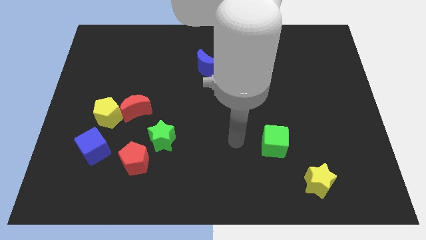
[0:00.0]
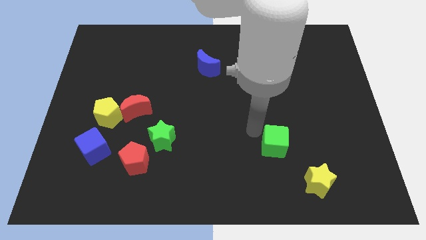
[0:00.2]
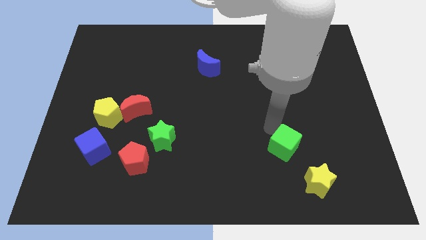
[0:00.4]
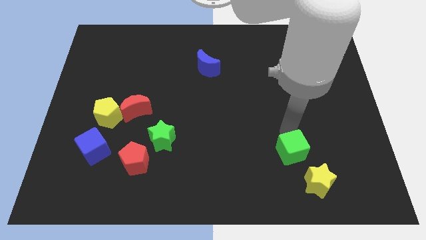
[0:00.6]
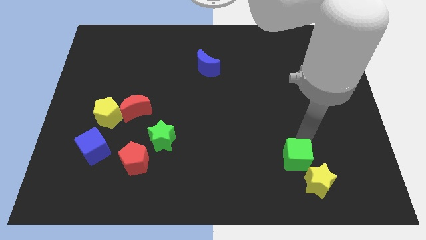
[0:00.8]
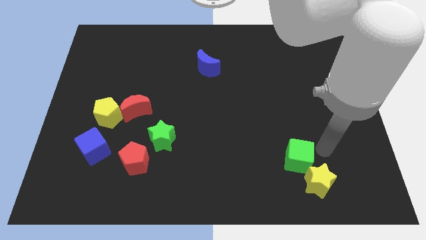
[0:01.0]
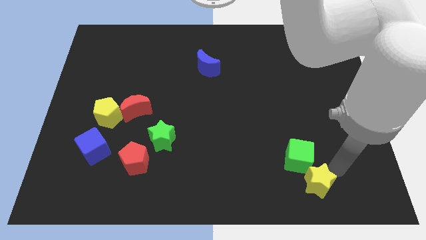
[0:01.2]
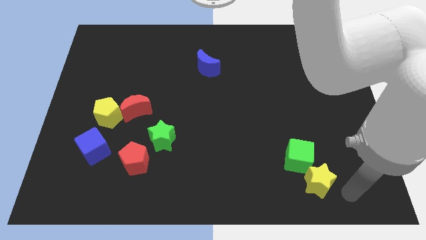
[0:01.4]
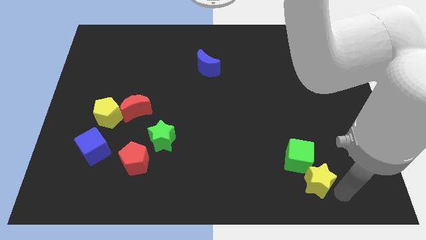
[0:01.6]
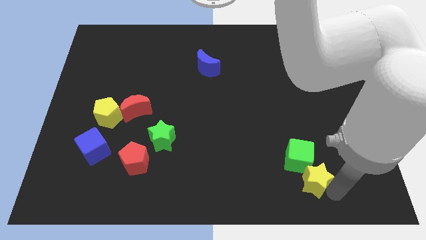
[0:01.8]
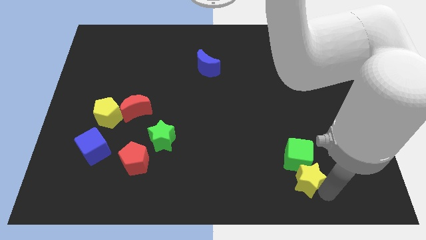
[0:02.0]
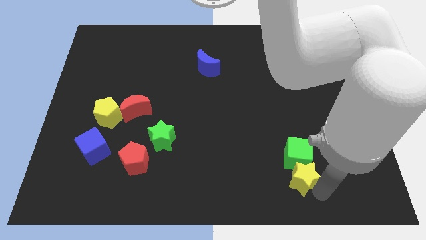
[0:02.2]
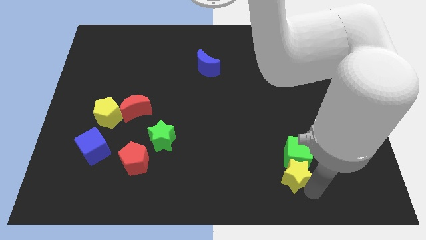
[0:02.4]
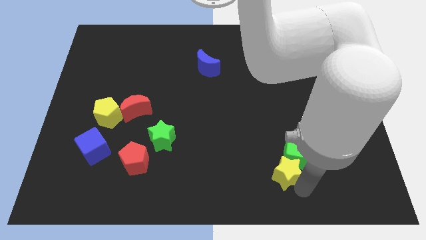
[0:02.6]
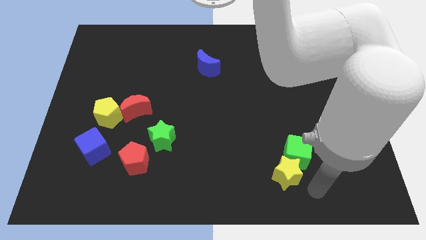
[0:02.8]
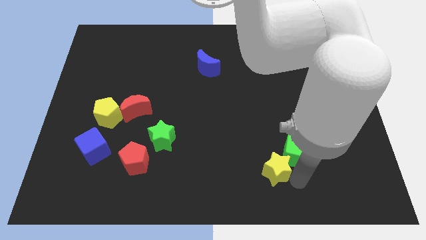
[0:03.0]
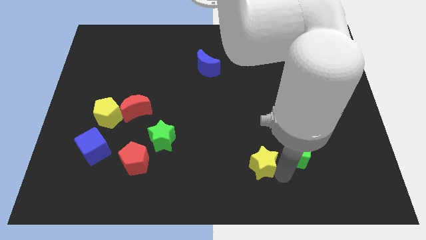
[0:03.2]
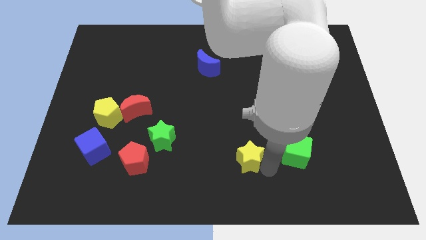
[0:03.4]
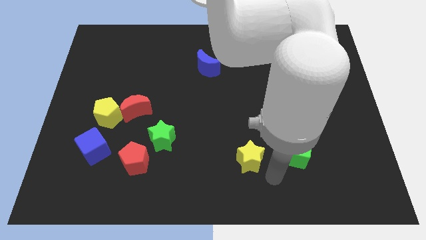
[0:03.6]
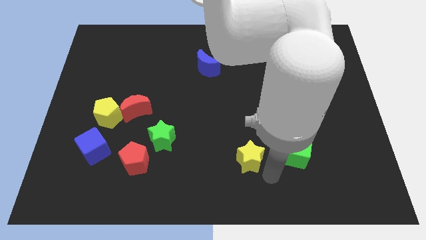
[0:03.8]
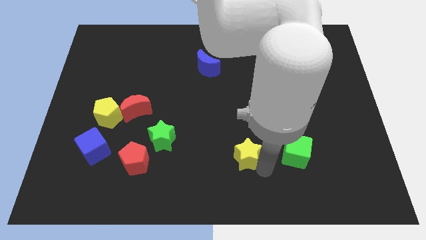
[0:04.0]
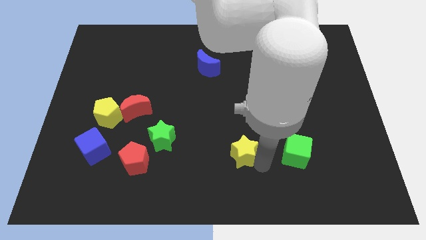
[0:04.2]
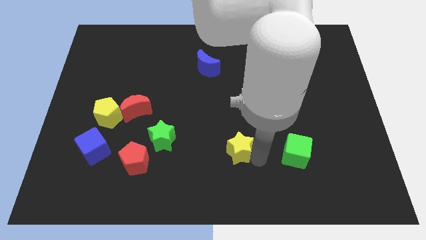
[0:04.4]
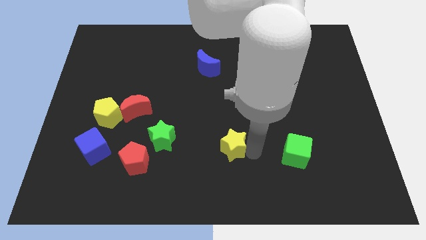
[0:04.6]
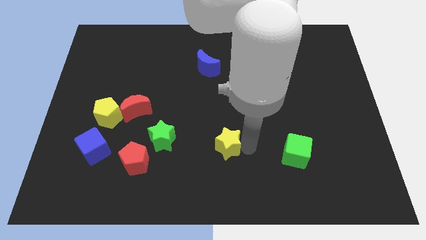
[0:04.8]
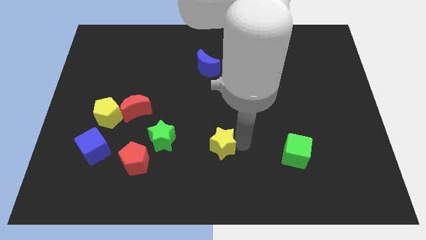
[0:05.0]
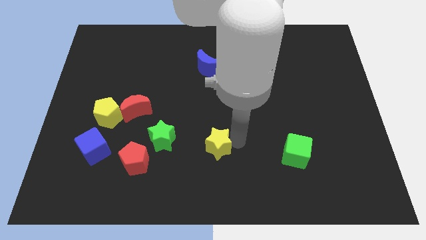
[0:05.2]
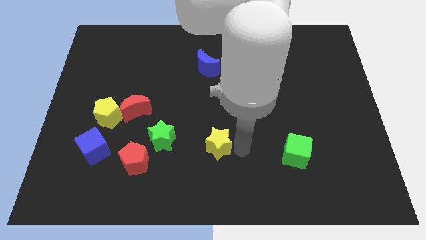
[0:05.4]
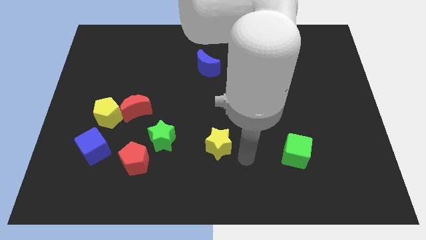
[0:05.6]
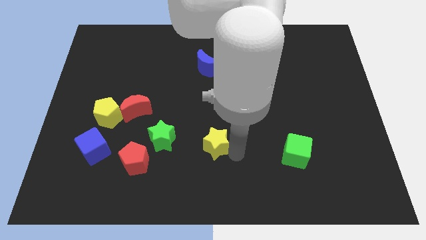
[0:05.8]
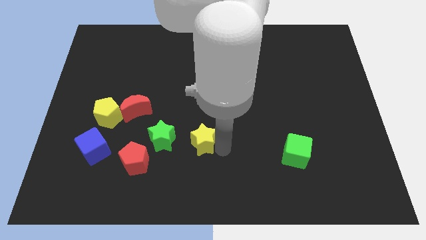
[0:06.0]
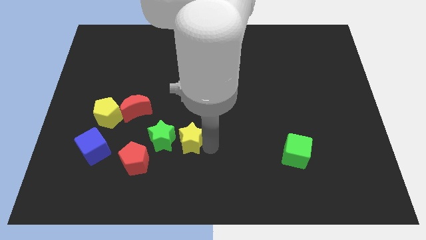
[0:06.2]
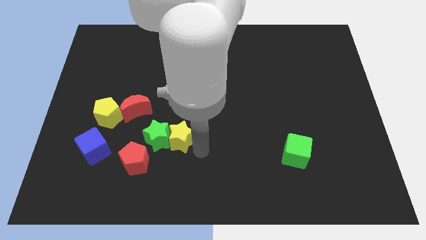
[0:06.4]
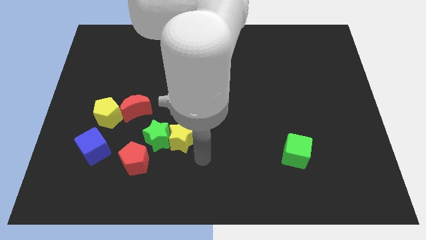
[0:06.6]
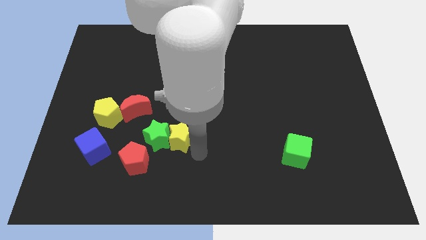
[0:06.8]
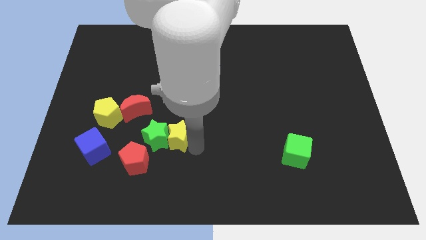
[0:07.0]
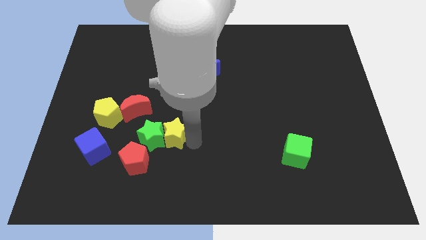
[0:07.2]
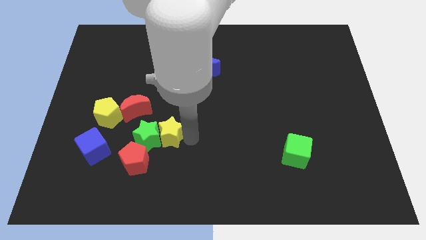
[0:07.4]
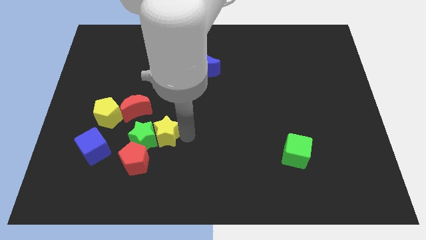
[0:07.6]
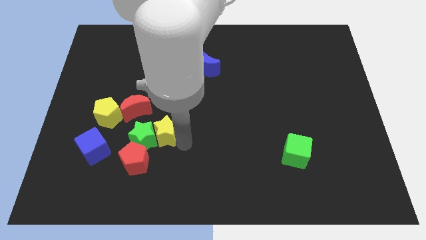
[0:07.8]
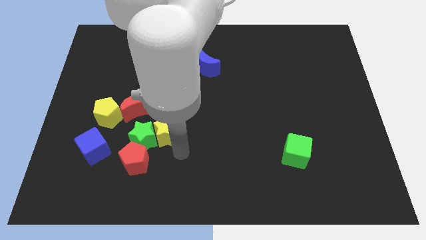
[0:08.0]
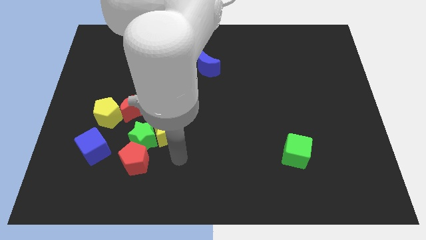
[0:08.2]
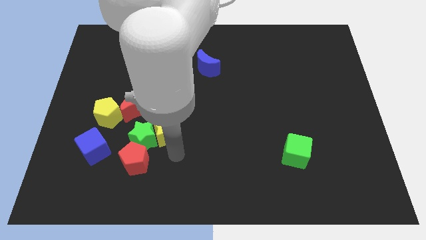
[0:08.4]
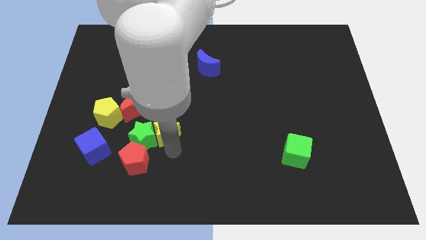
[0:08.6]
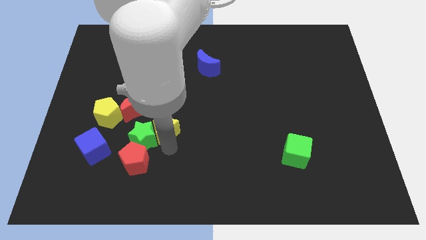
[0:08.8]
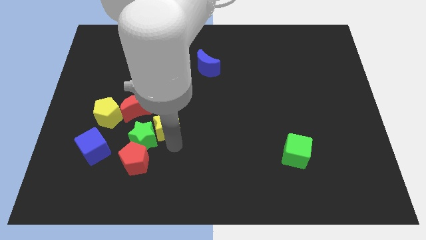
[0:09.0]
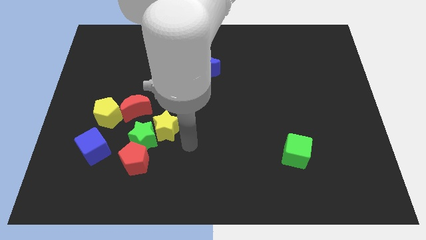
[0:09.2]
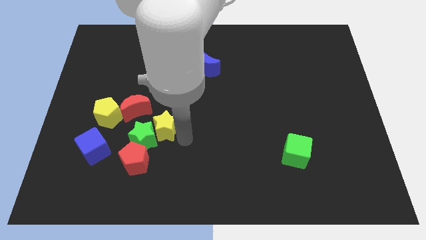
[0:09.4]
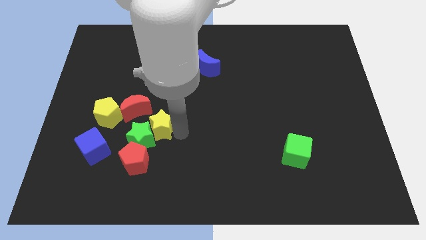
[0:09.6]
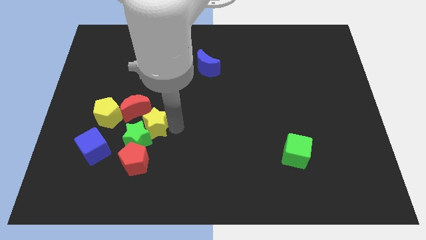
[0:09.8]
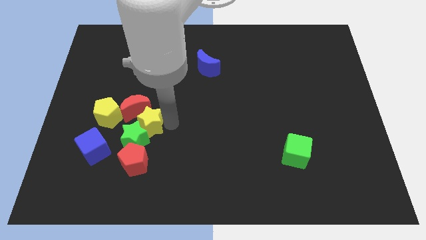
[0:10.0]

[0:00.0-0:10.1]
slide the yellow star close to the red moon

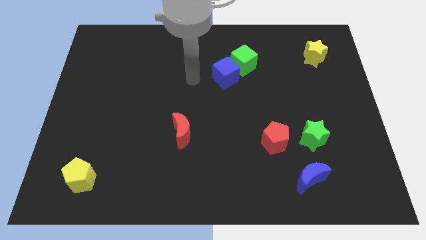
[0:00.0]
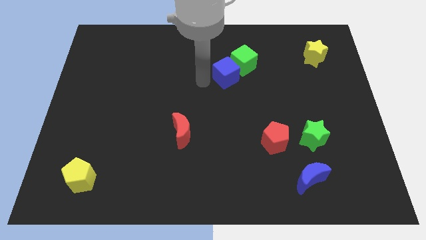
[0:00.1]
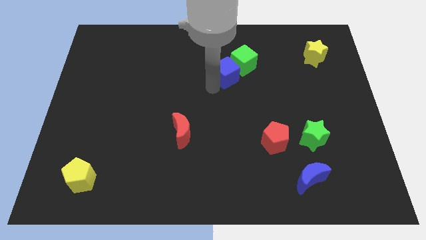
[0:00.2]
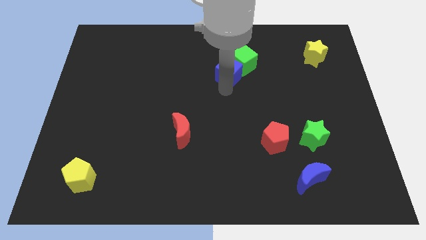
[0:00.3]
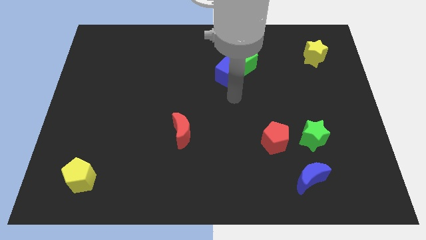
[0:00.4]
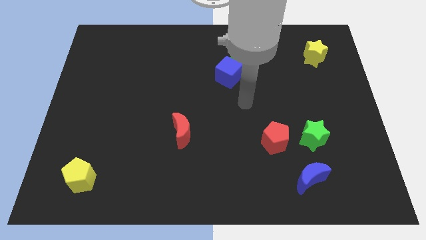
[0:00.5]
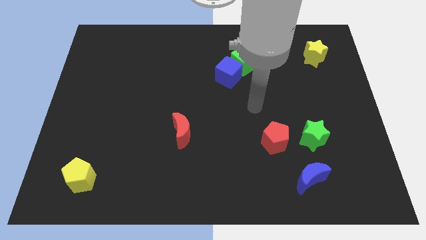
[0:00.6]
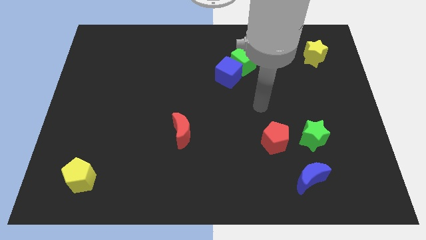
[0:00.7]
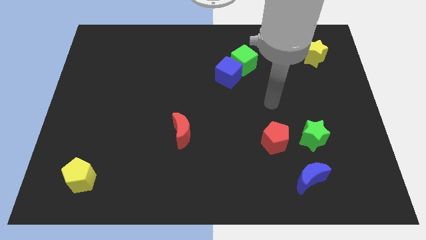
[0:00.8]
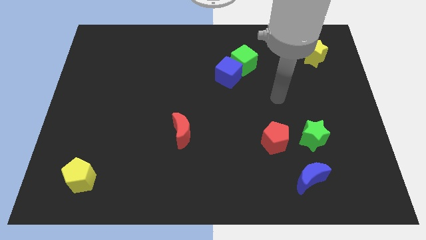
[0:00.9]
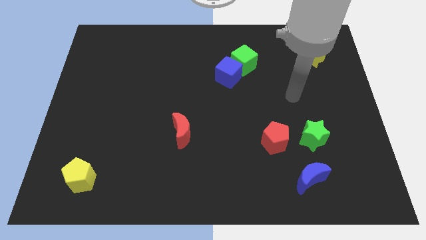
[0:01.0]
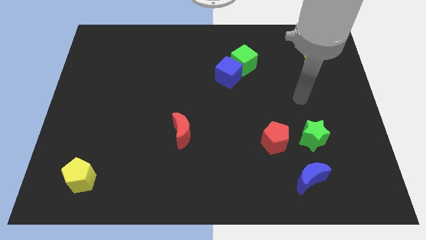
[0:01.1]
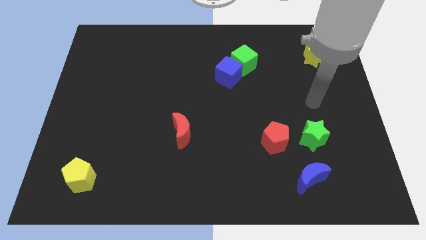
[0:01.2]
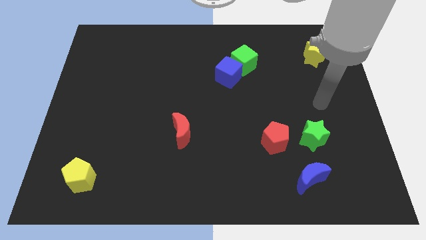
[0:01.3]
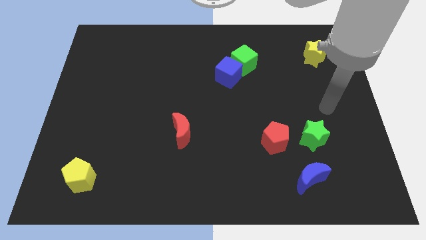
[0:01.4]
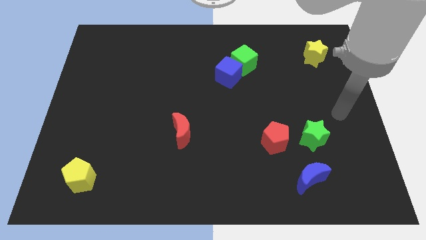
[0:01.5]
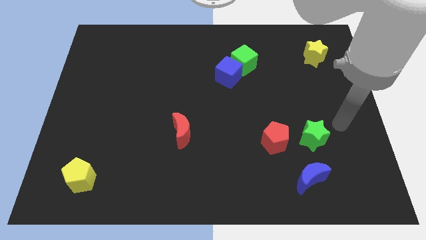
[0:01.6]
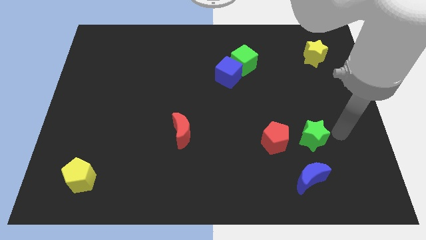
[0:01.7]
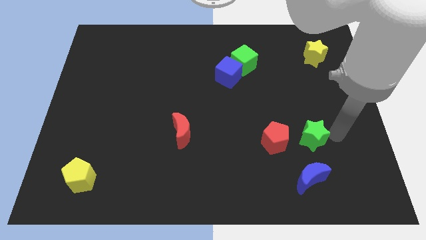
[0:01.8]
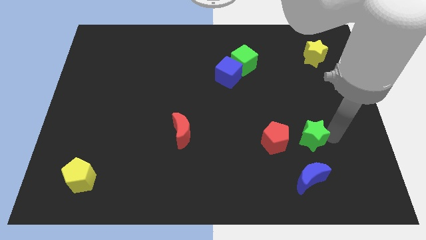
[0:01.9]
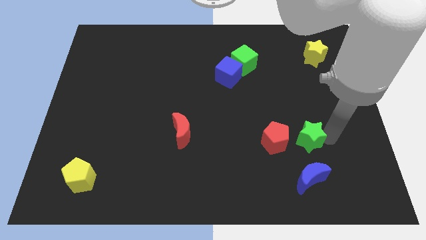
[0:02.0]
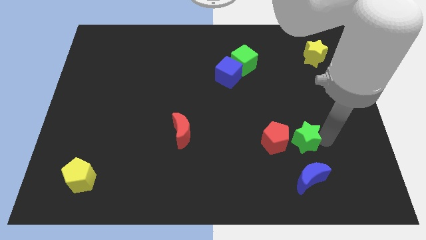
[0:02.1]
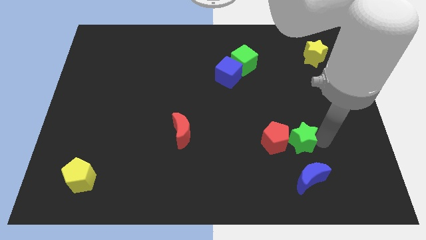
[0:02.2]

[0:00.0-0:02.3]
put the green star towards the red pentagon
